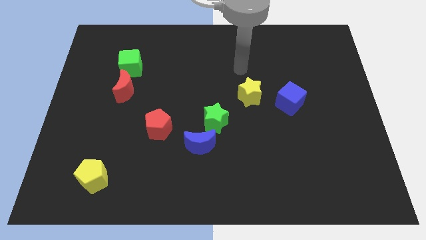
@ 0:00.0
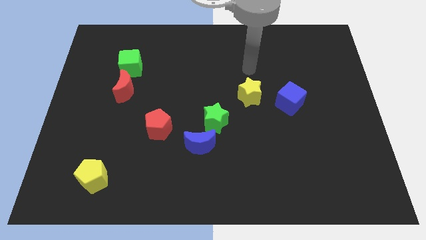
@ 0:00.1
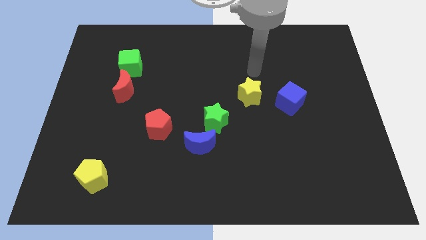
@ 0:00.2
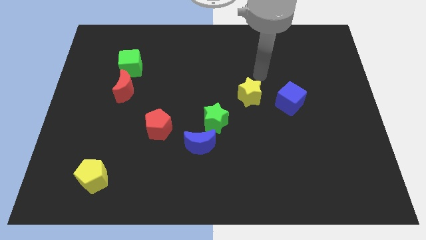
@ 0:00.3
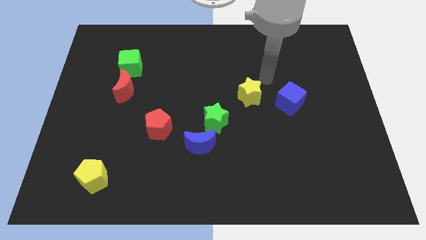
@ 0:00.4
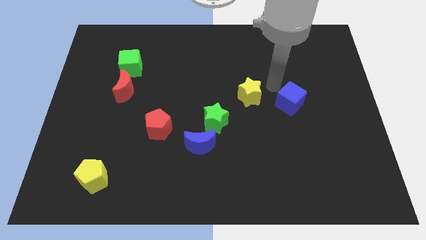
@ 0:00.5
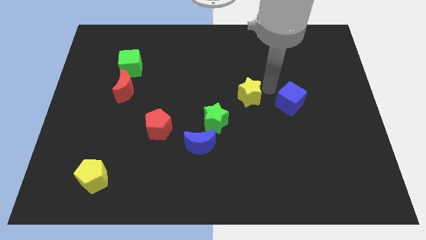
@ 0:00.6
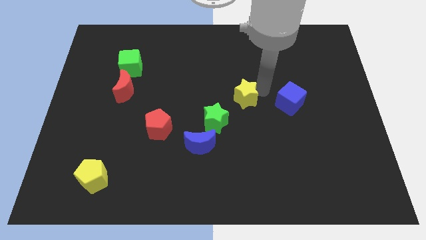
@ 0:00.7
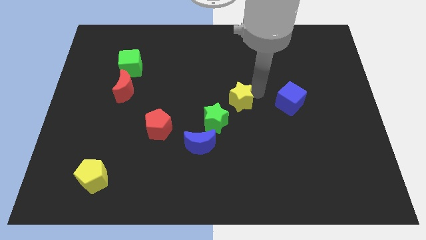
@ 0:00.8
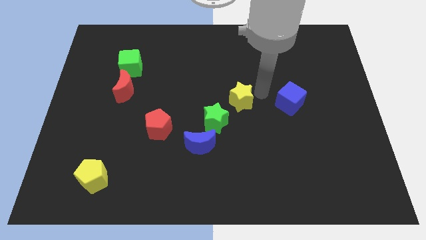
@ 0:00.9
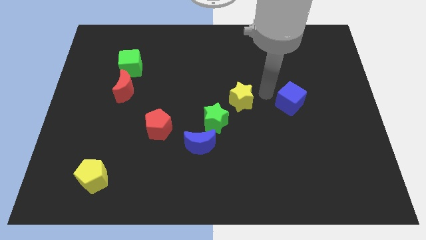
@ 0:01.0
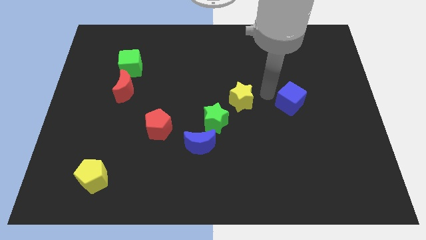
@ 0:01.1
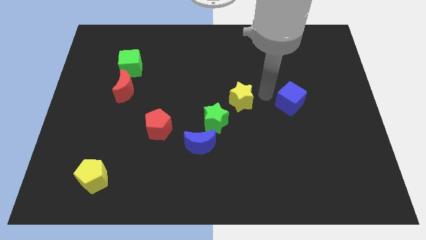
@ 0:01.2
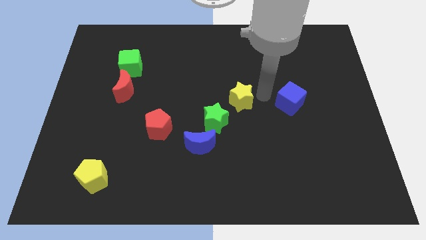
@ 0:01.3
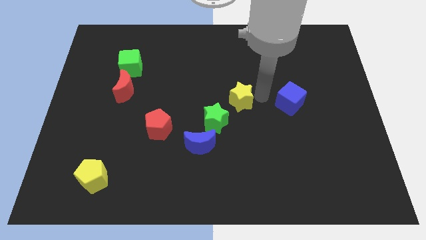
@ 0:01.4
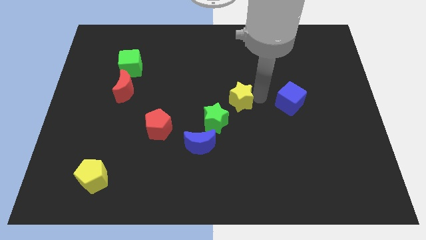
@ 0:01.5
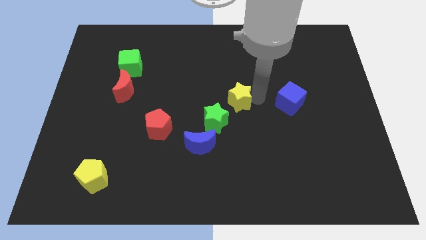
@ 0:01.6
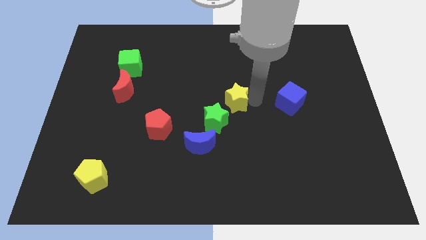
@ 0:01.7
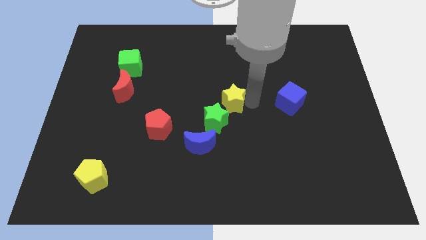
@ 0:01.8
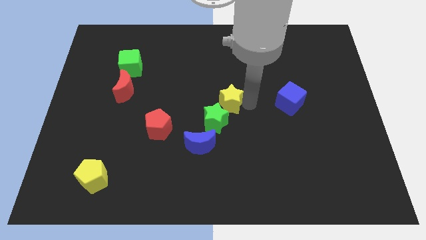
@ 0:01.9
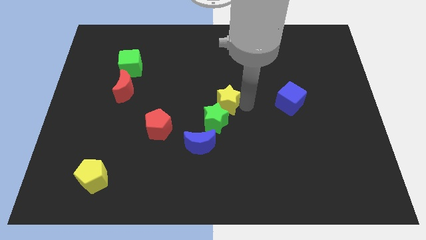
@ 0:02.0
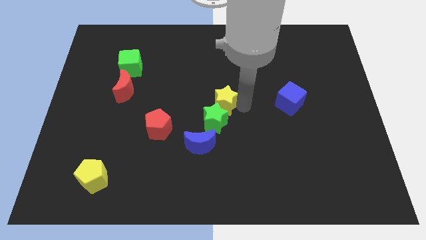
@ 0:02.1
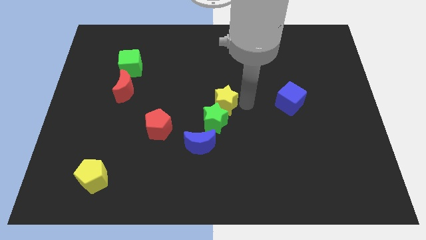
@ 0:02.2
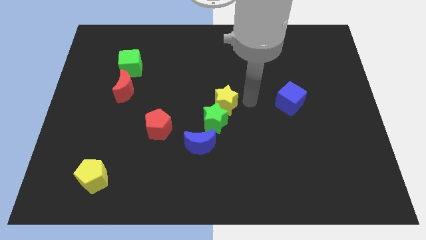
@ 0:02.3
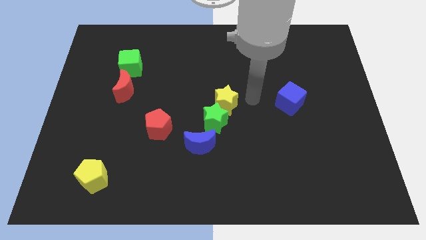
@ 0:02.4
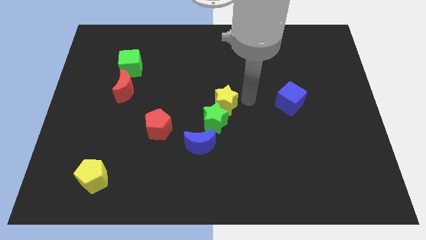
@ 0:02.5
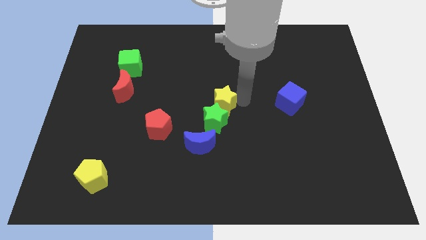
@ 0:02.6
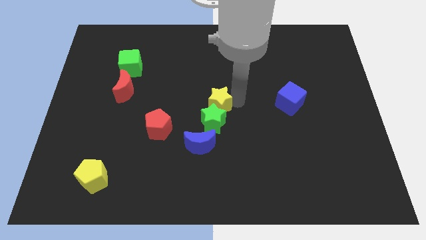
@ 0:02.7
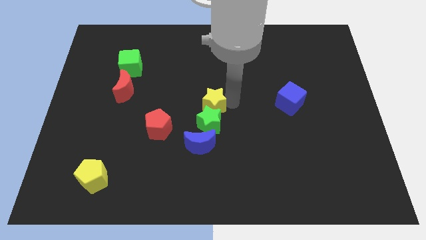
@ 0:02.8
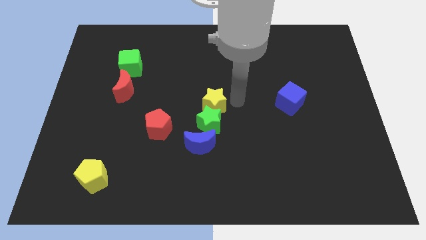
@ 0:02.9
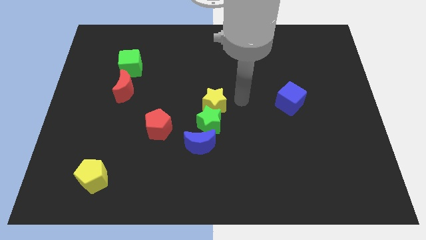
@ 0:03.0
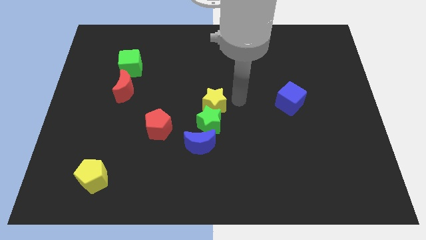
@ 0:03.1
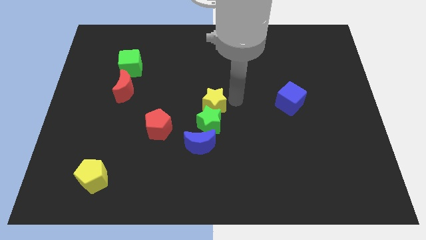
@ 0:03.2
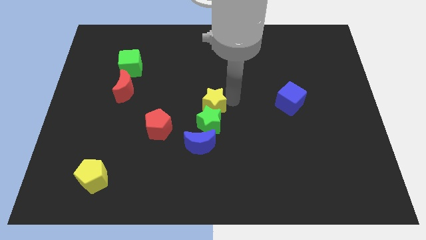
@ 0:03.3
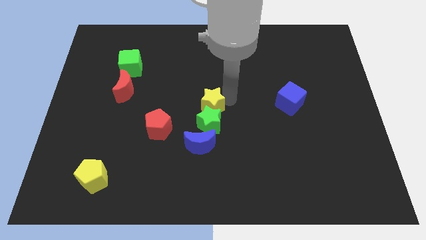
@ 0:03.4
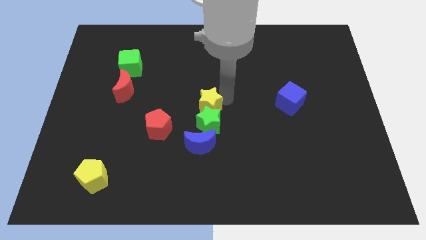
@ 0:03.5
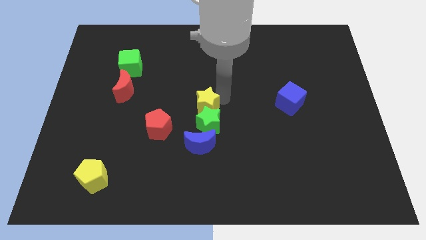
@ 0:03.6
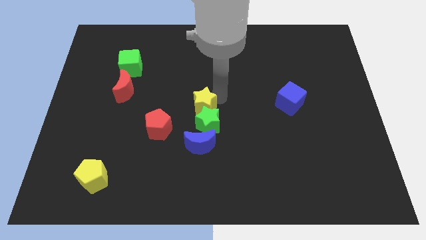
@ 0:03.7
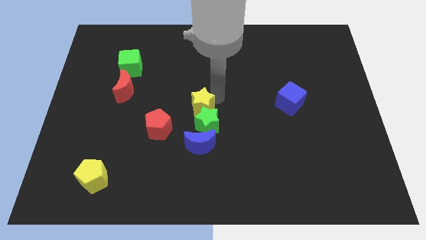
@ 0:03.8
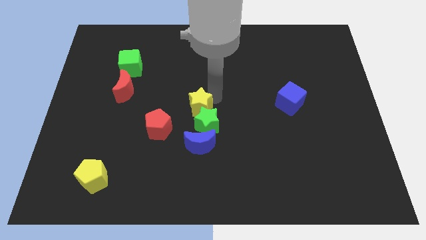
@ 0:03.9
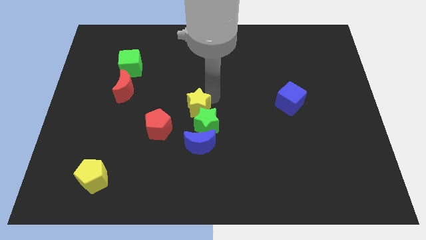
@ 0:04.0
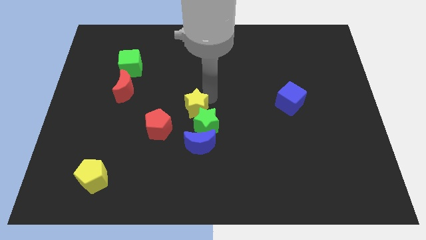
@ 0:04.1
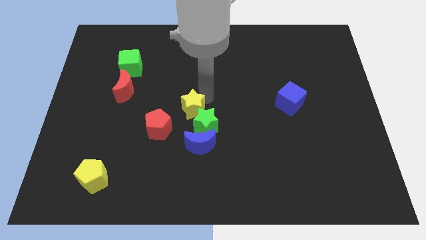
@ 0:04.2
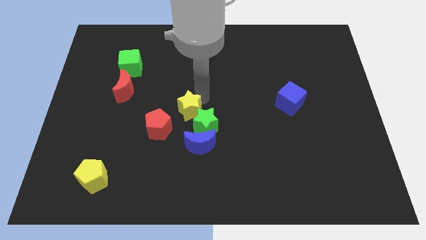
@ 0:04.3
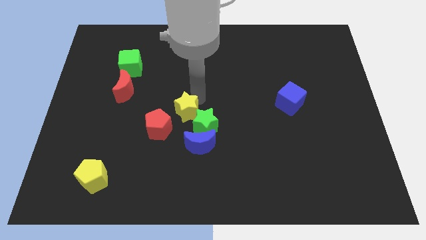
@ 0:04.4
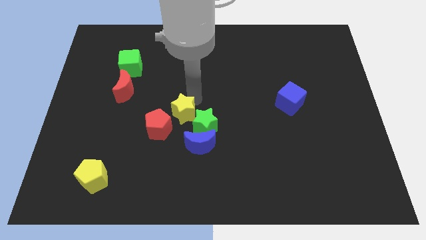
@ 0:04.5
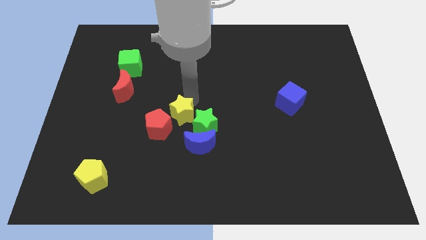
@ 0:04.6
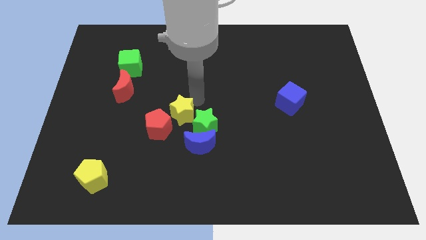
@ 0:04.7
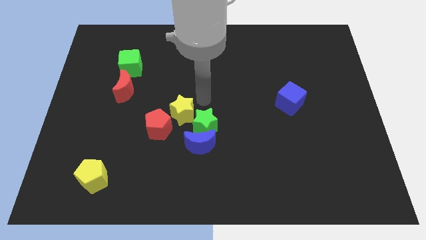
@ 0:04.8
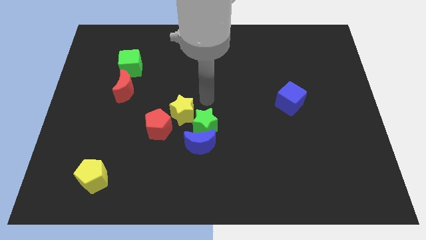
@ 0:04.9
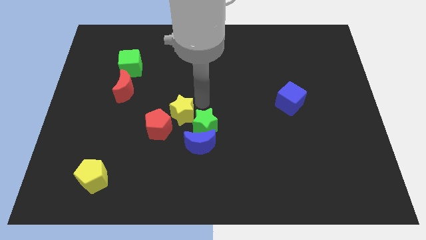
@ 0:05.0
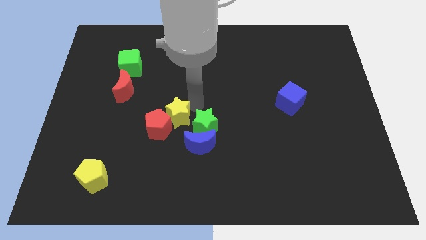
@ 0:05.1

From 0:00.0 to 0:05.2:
put the yellow star to the red pentagon

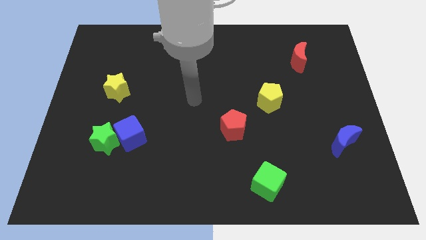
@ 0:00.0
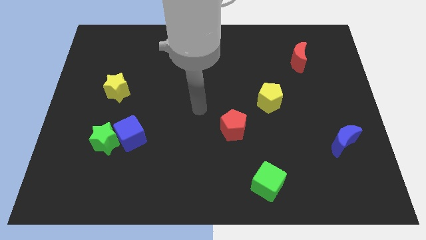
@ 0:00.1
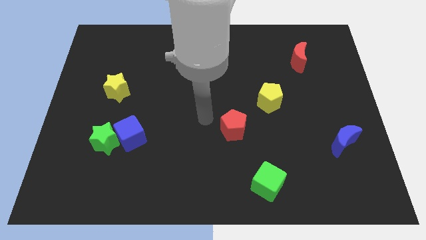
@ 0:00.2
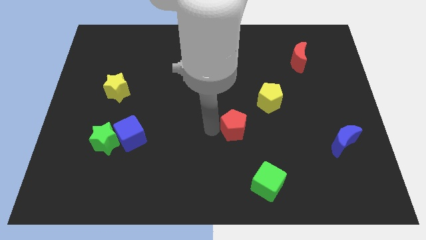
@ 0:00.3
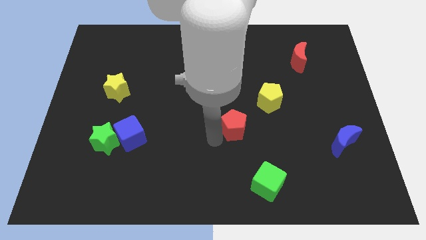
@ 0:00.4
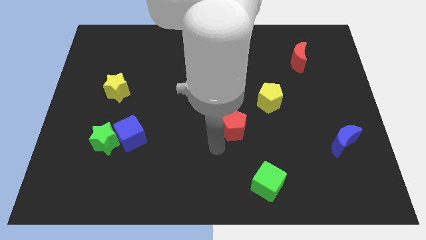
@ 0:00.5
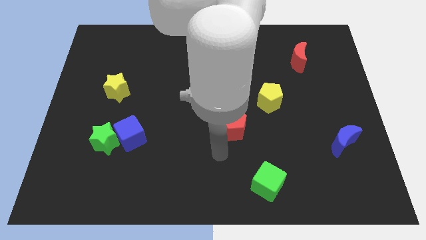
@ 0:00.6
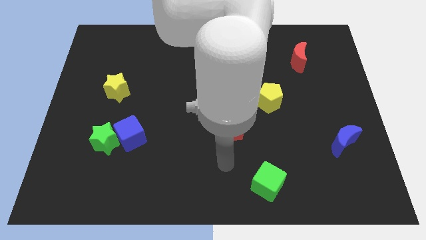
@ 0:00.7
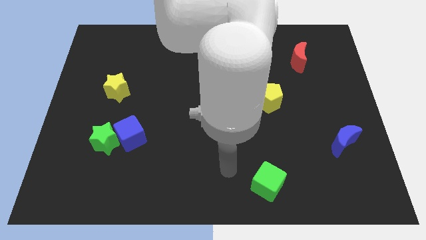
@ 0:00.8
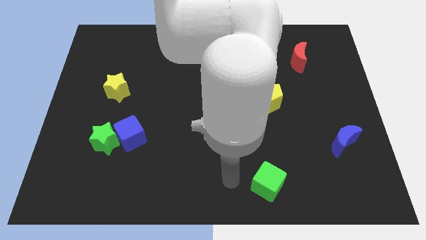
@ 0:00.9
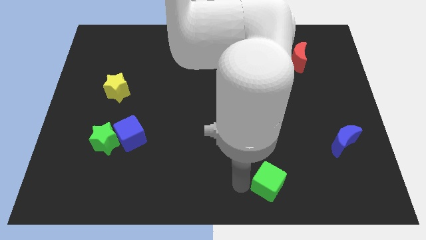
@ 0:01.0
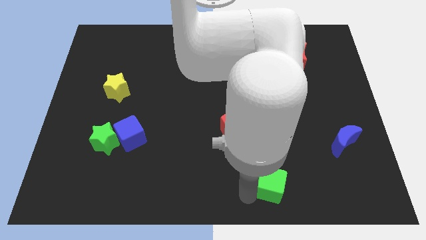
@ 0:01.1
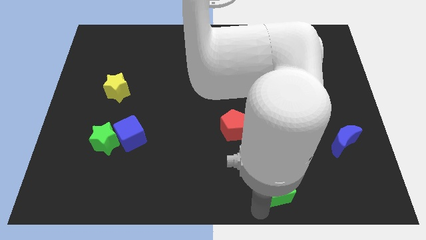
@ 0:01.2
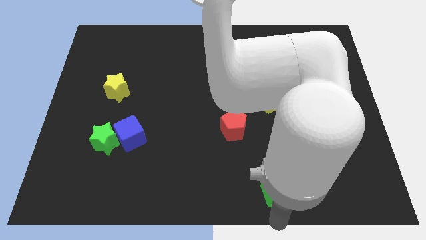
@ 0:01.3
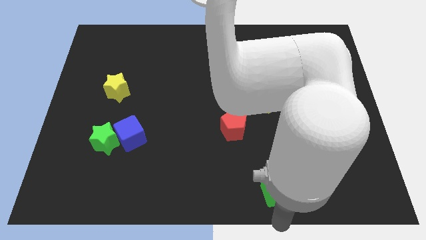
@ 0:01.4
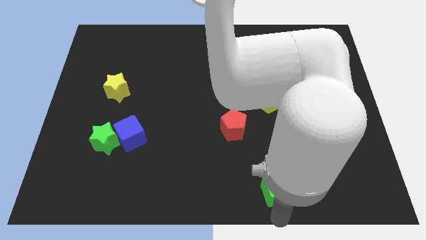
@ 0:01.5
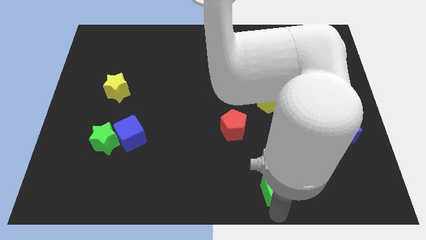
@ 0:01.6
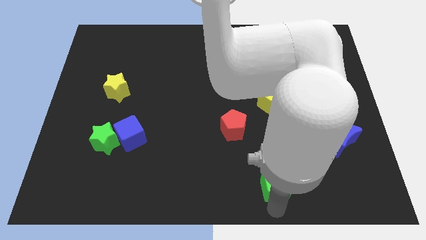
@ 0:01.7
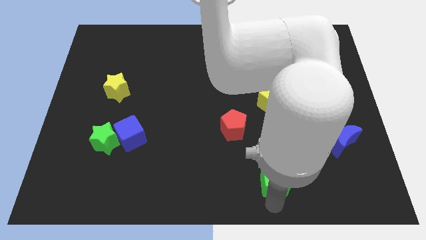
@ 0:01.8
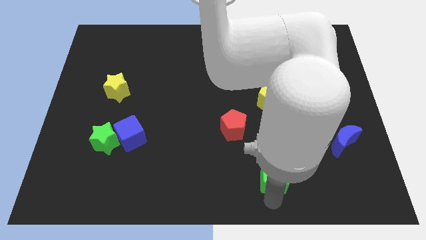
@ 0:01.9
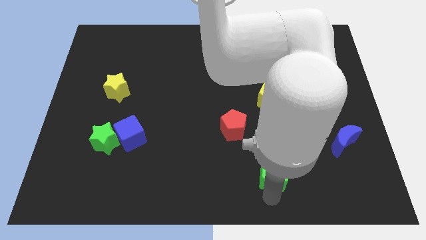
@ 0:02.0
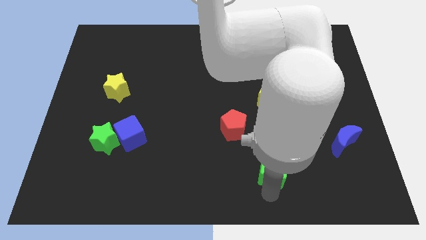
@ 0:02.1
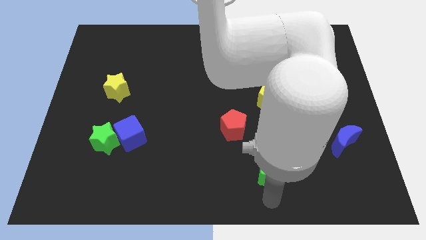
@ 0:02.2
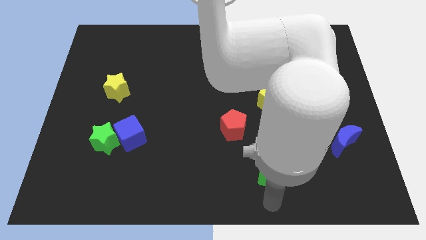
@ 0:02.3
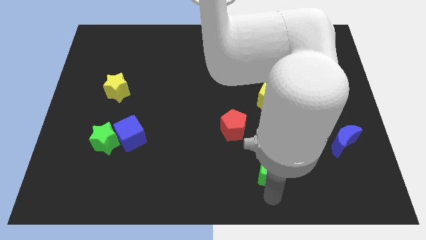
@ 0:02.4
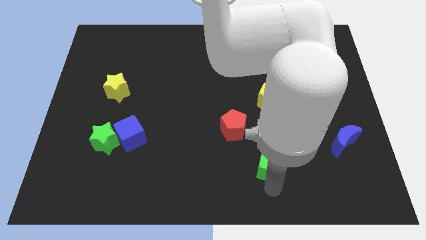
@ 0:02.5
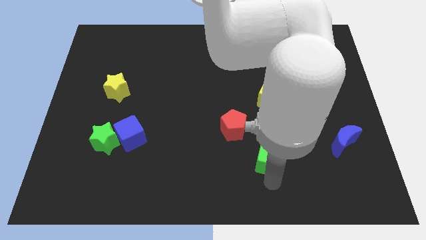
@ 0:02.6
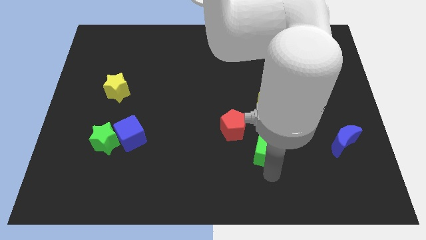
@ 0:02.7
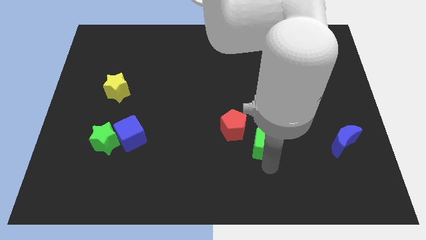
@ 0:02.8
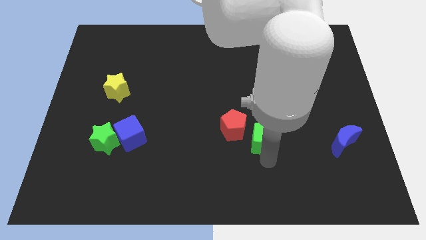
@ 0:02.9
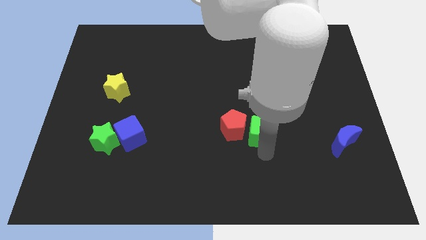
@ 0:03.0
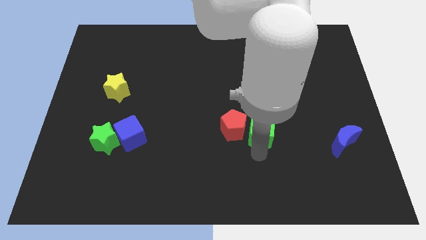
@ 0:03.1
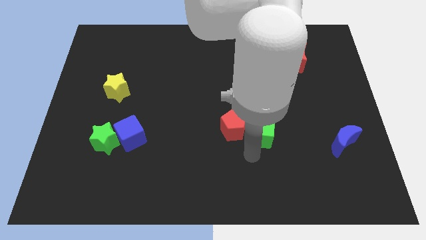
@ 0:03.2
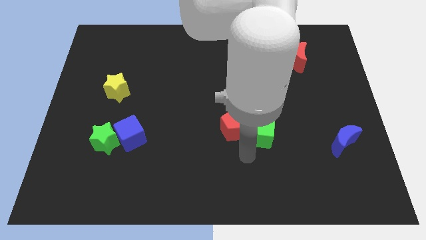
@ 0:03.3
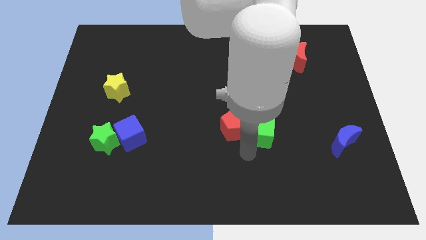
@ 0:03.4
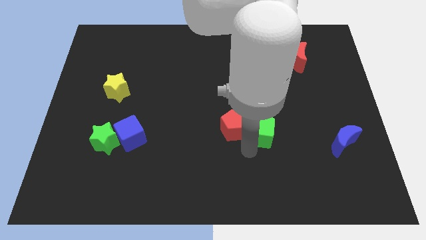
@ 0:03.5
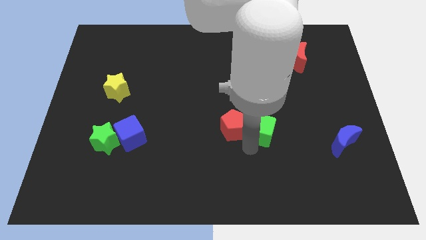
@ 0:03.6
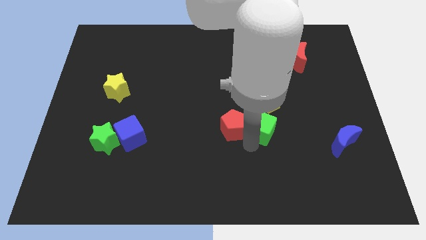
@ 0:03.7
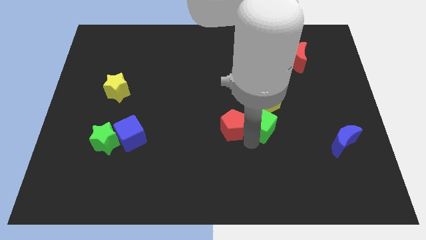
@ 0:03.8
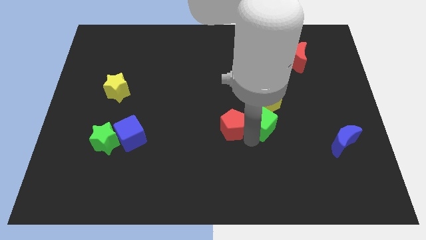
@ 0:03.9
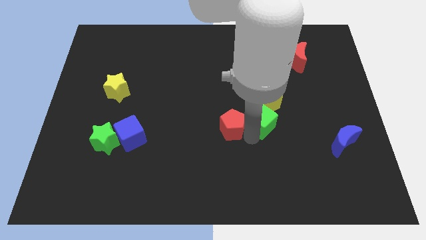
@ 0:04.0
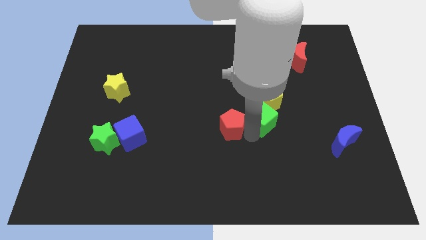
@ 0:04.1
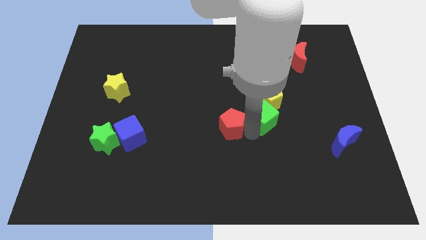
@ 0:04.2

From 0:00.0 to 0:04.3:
push the green cube next to the yellow pentagon
